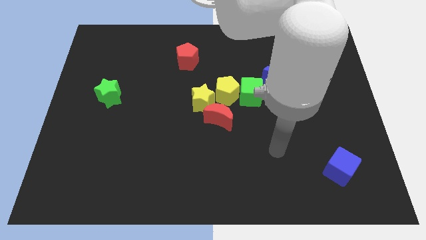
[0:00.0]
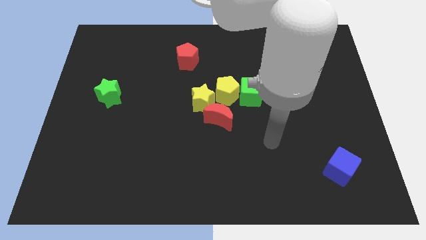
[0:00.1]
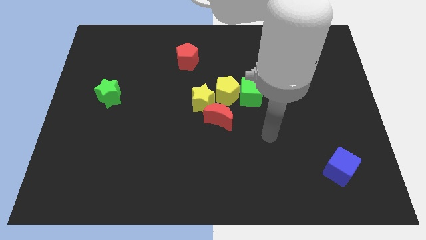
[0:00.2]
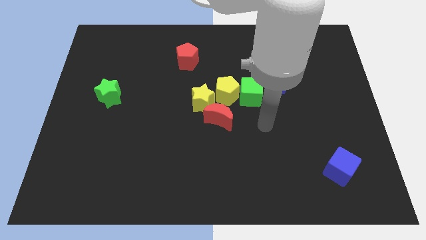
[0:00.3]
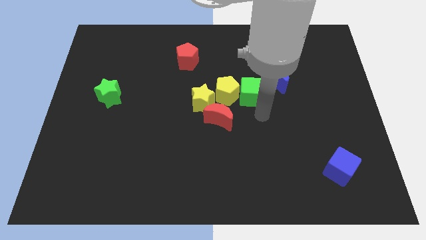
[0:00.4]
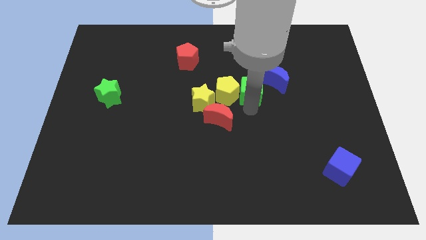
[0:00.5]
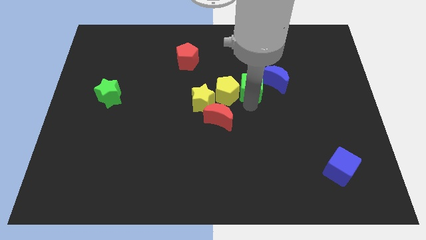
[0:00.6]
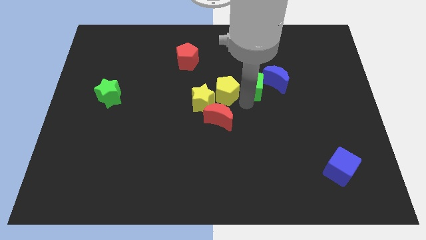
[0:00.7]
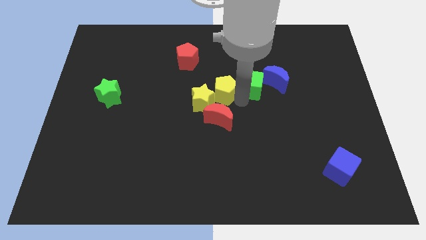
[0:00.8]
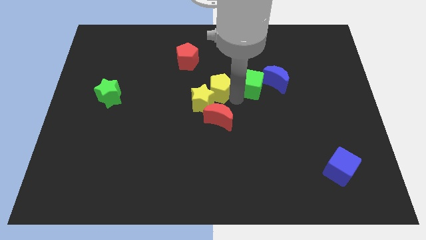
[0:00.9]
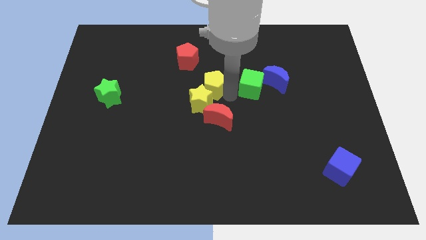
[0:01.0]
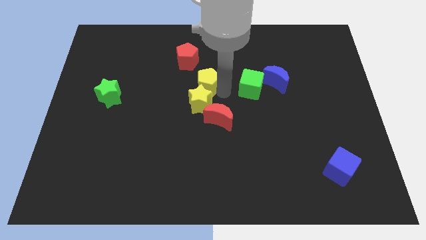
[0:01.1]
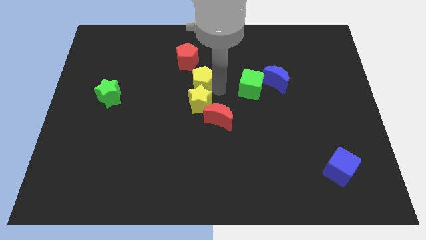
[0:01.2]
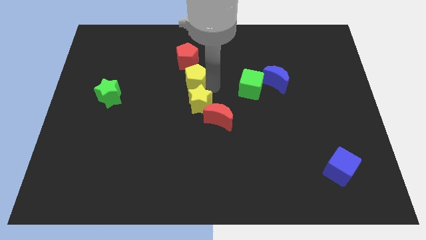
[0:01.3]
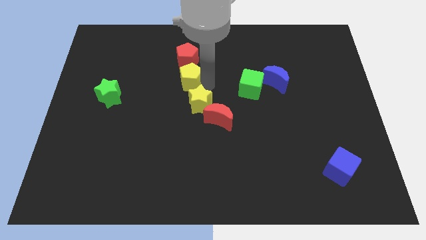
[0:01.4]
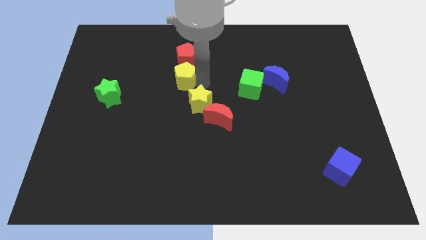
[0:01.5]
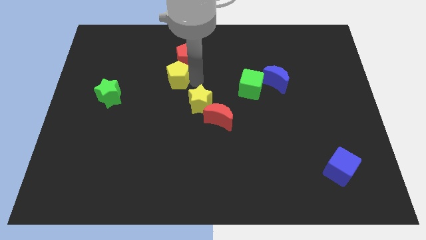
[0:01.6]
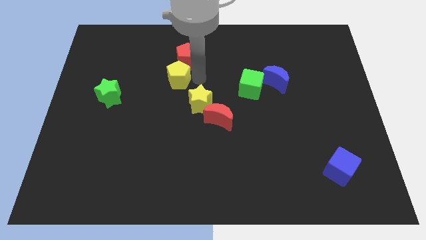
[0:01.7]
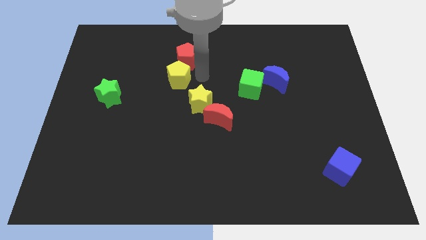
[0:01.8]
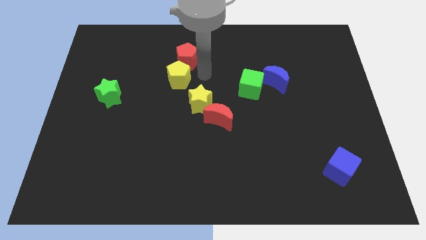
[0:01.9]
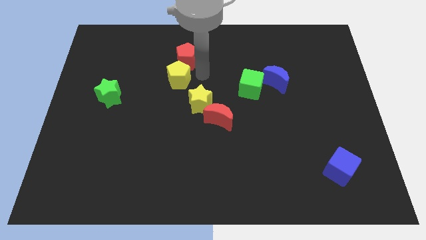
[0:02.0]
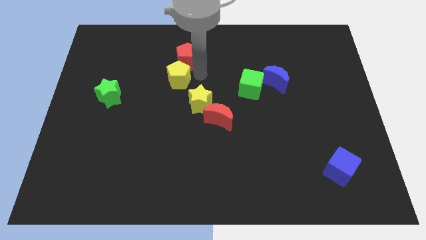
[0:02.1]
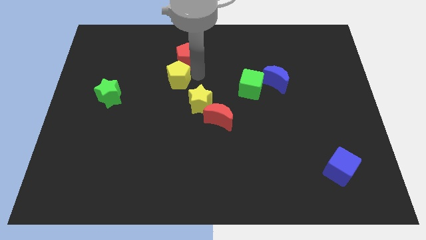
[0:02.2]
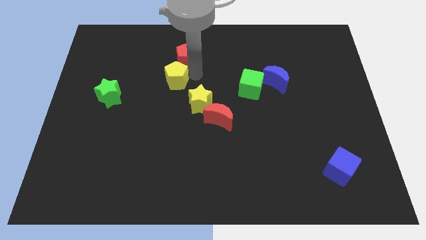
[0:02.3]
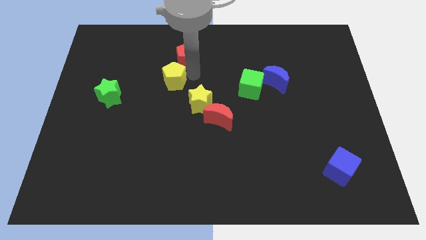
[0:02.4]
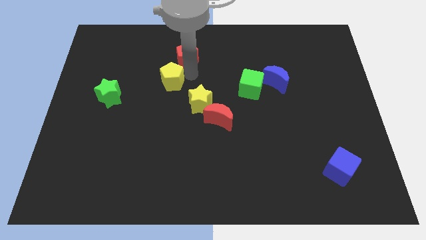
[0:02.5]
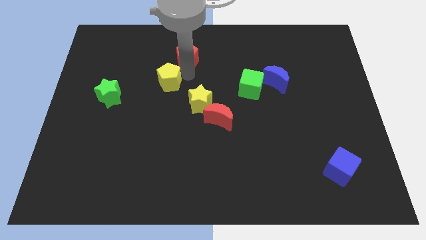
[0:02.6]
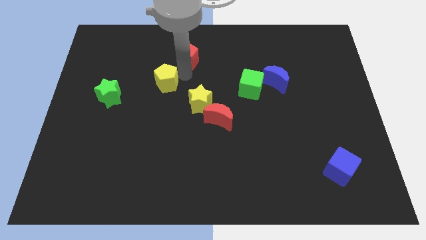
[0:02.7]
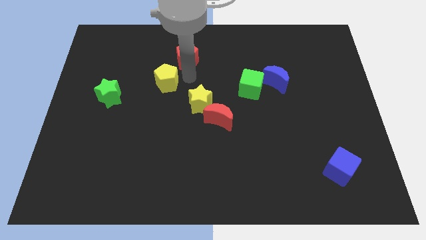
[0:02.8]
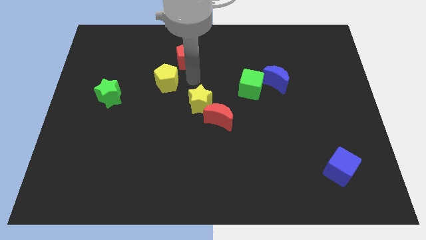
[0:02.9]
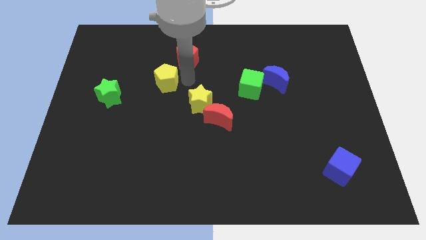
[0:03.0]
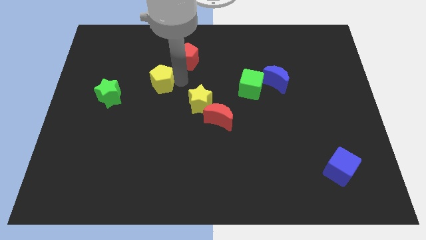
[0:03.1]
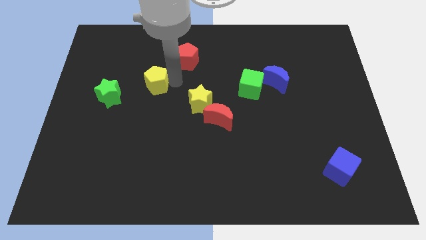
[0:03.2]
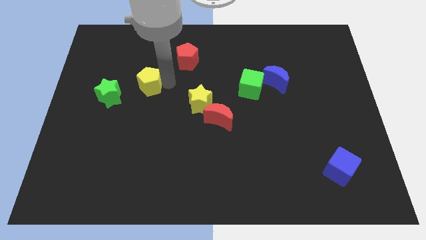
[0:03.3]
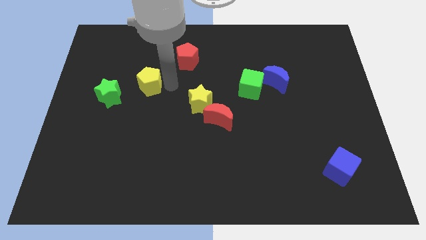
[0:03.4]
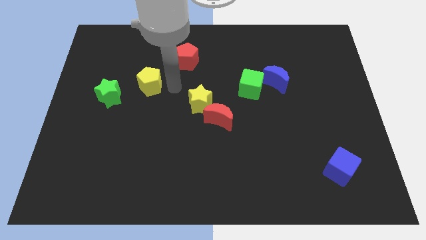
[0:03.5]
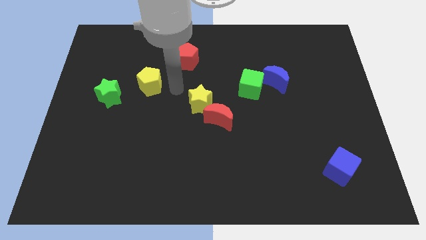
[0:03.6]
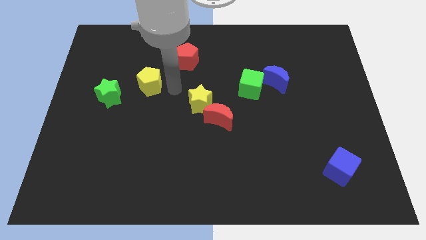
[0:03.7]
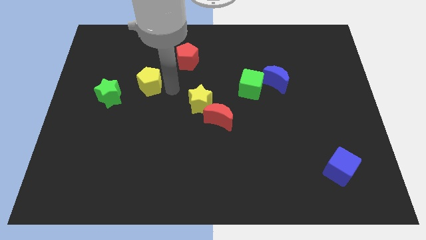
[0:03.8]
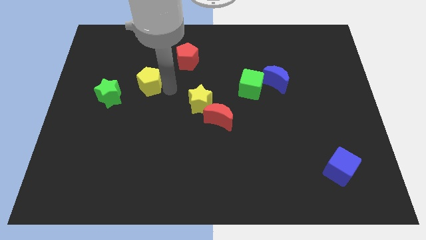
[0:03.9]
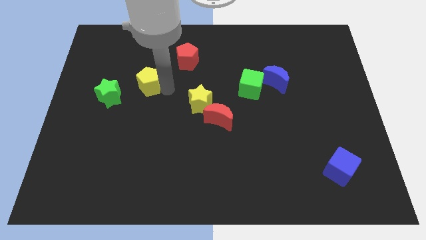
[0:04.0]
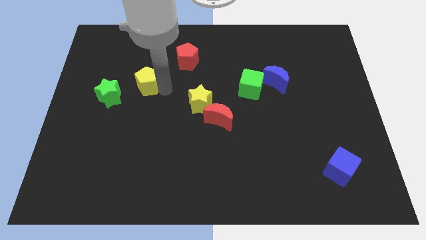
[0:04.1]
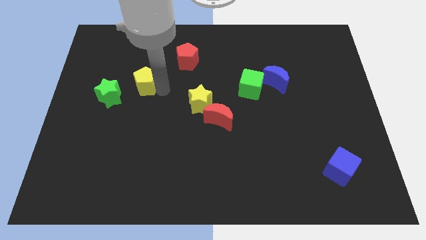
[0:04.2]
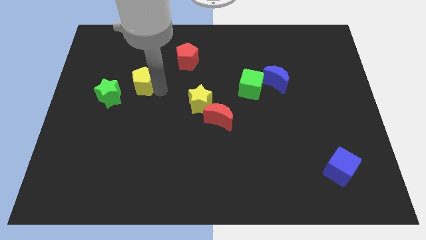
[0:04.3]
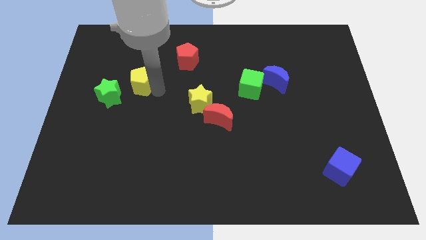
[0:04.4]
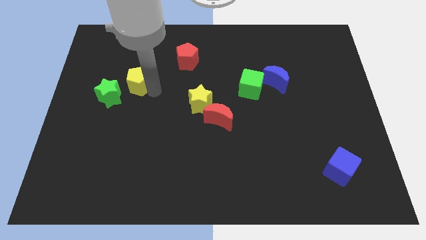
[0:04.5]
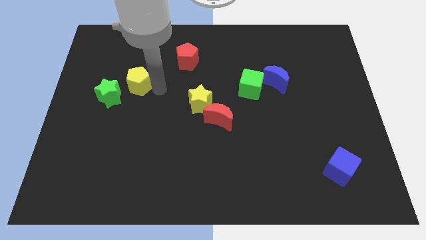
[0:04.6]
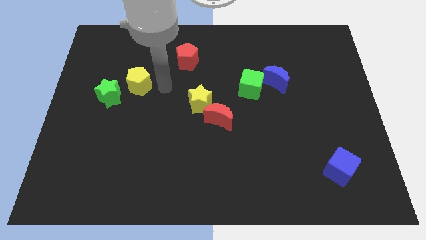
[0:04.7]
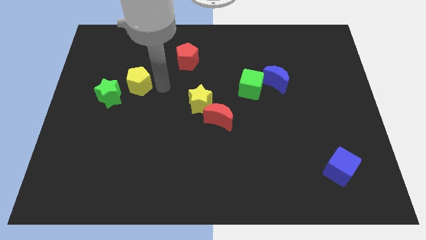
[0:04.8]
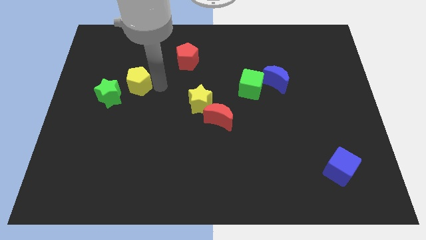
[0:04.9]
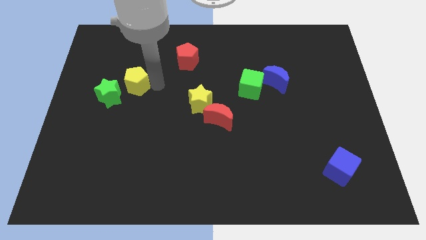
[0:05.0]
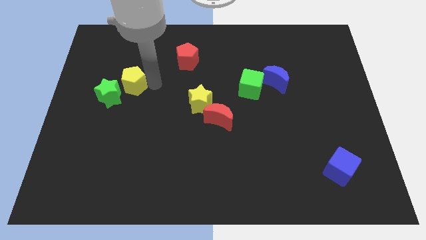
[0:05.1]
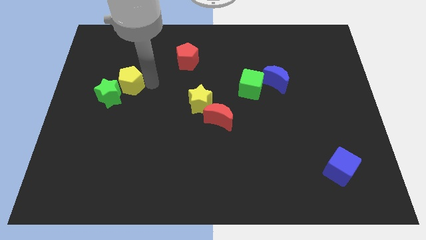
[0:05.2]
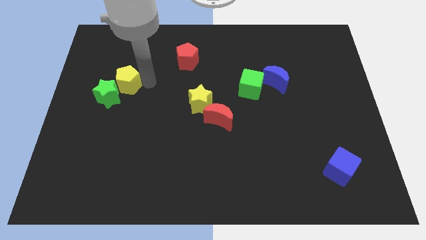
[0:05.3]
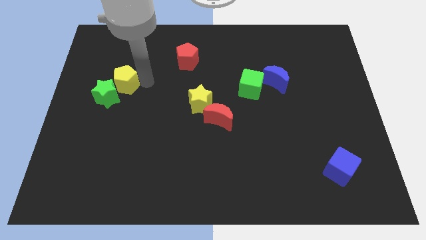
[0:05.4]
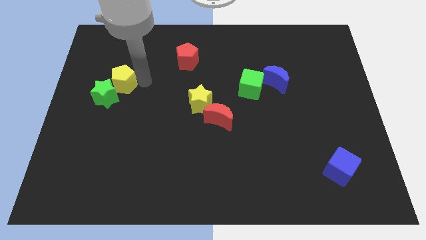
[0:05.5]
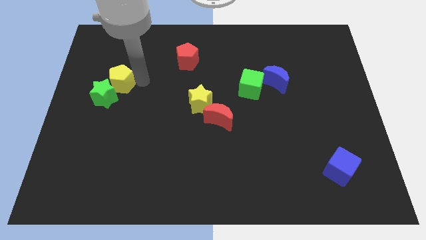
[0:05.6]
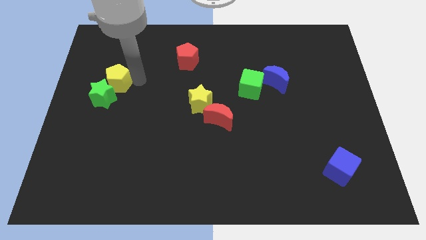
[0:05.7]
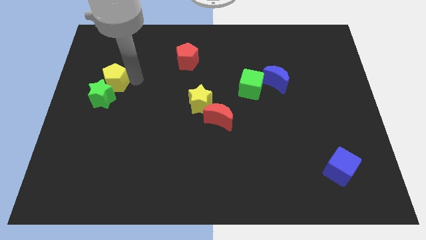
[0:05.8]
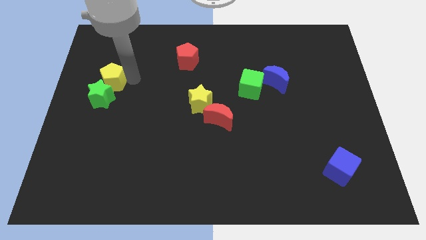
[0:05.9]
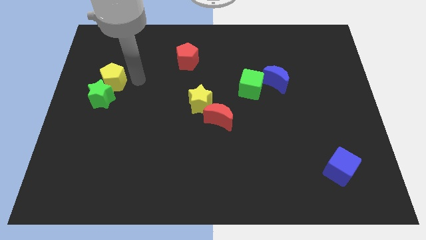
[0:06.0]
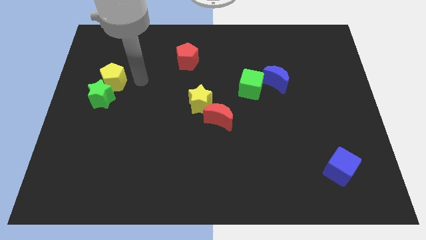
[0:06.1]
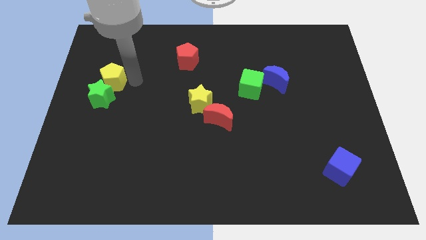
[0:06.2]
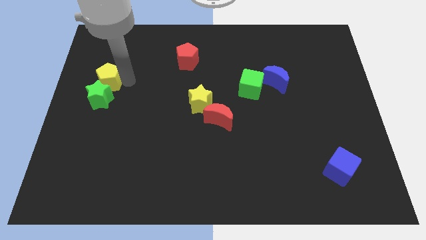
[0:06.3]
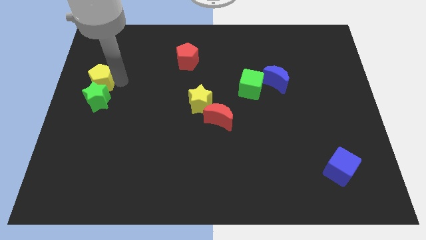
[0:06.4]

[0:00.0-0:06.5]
put the yellow pentagon to the left side of the board
